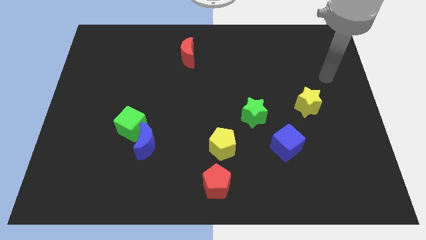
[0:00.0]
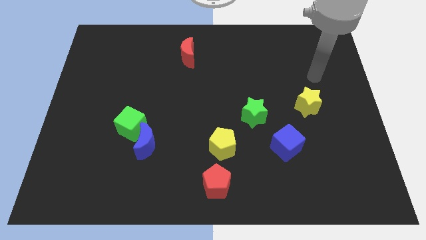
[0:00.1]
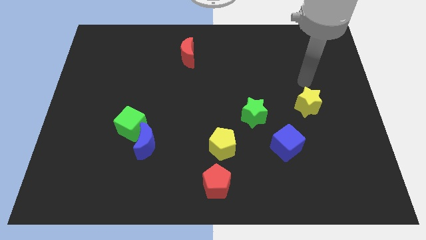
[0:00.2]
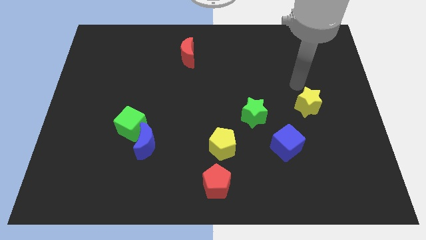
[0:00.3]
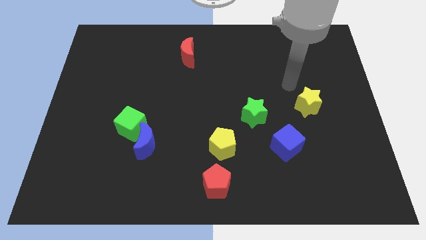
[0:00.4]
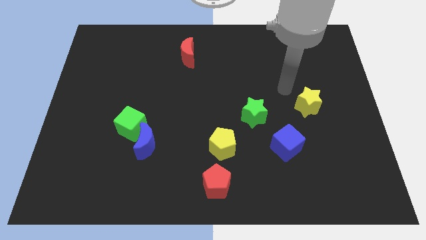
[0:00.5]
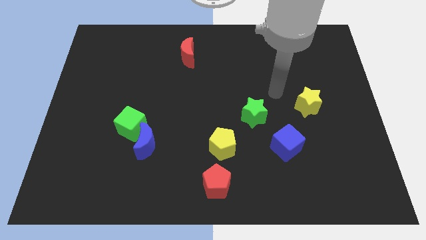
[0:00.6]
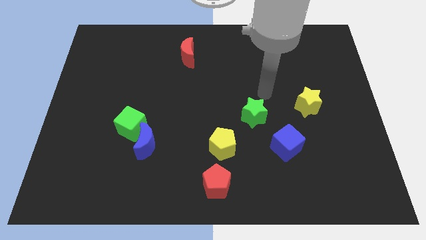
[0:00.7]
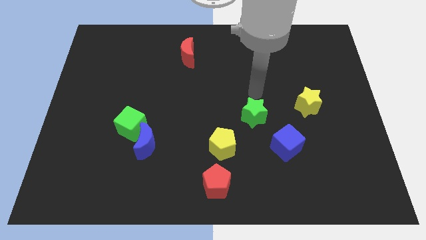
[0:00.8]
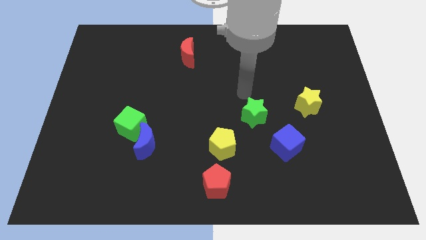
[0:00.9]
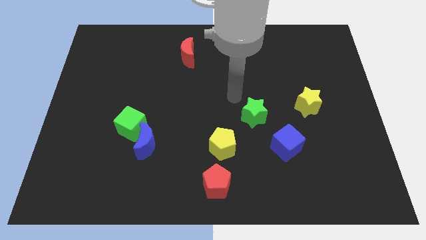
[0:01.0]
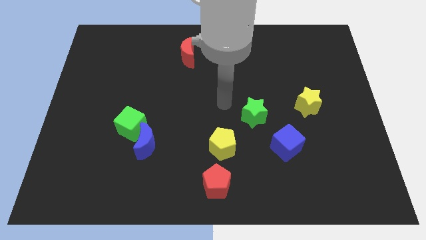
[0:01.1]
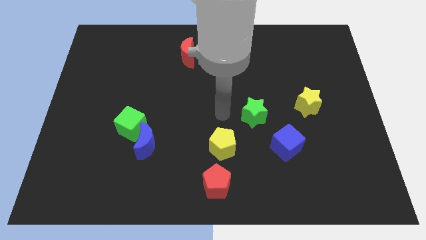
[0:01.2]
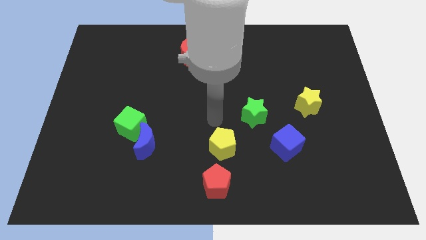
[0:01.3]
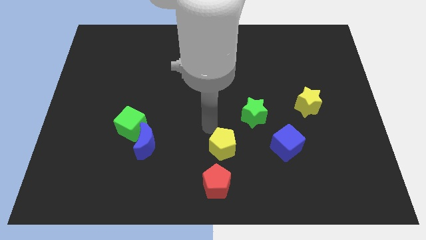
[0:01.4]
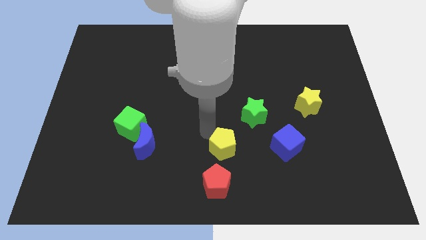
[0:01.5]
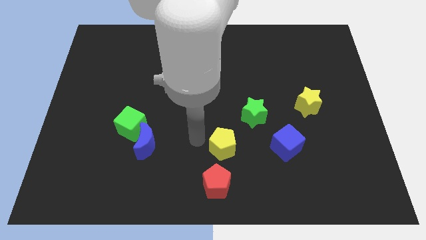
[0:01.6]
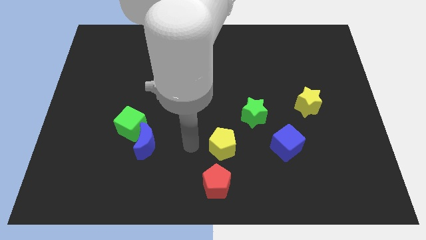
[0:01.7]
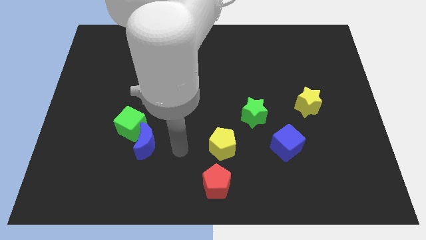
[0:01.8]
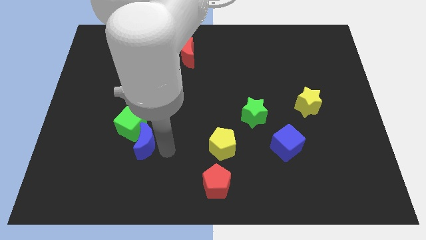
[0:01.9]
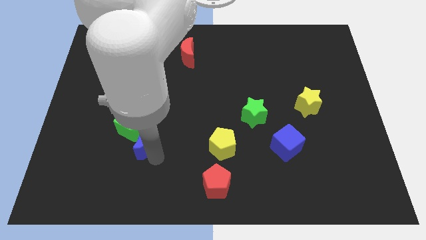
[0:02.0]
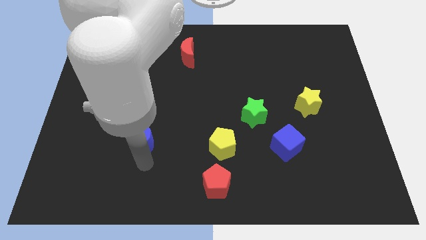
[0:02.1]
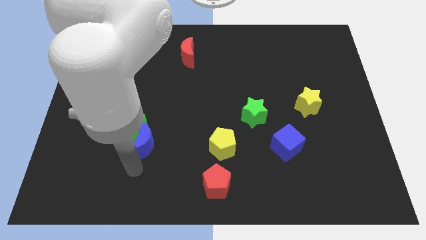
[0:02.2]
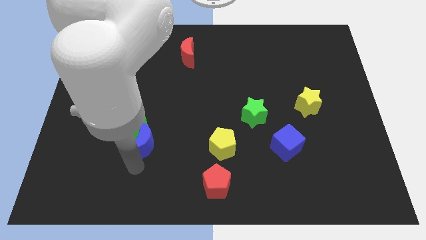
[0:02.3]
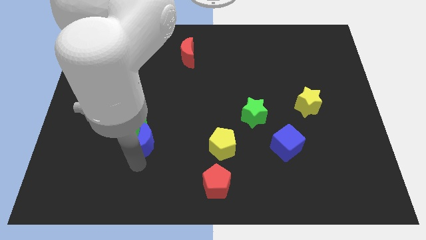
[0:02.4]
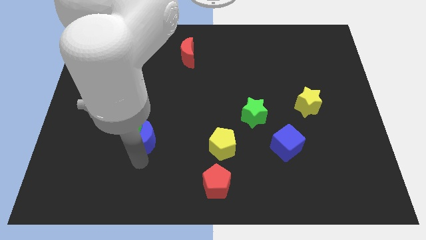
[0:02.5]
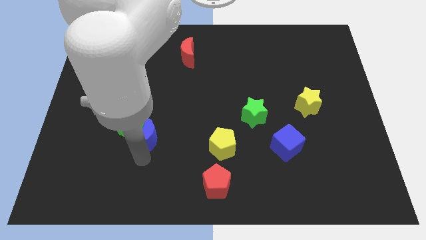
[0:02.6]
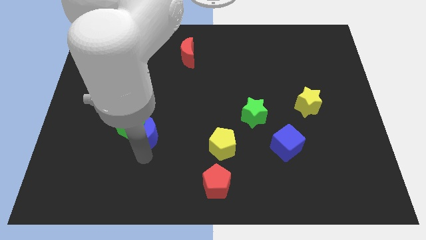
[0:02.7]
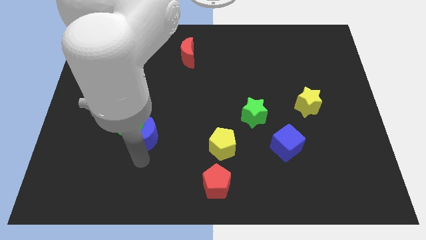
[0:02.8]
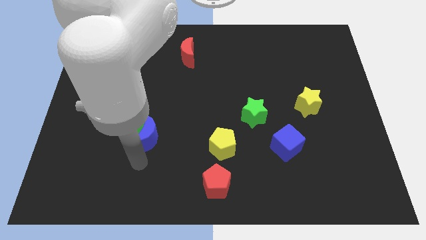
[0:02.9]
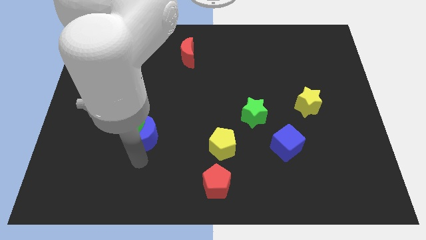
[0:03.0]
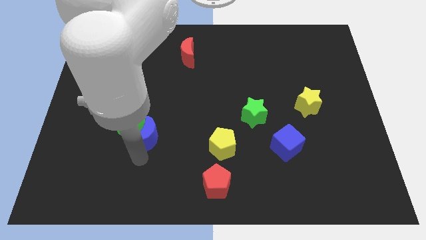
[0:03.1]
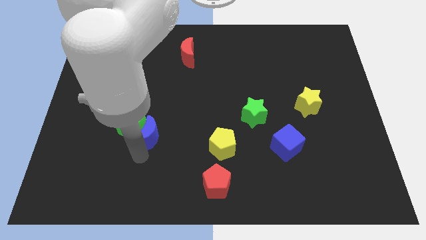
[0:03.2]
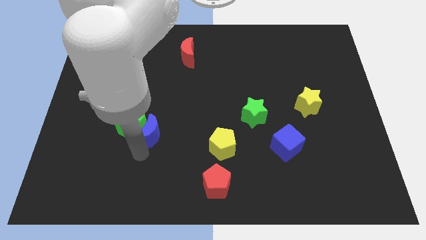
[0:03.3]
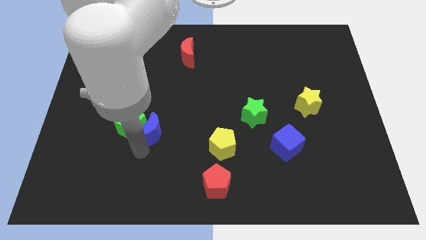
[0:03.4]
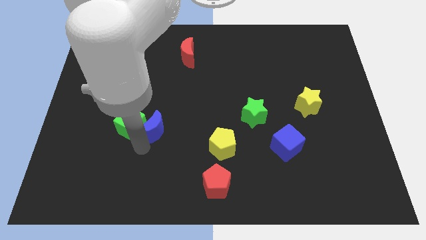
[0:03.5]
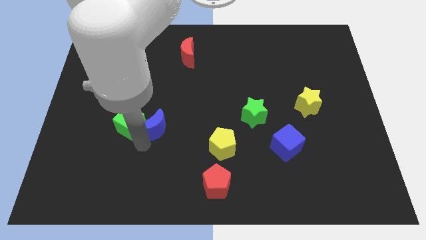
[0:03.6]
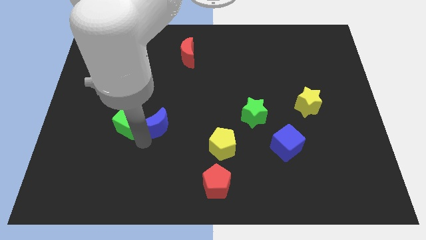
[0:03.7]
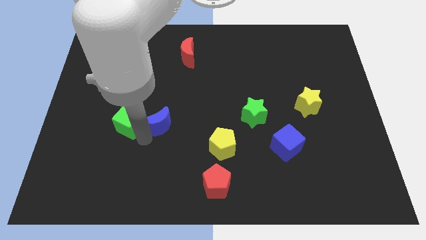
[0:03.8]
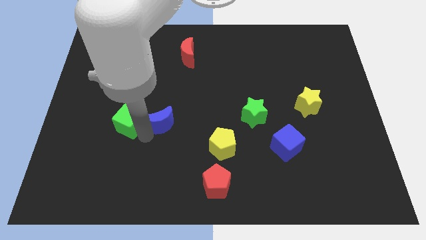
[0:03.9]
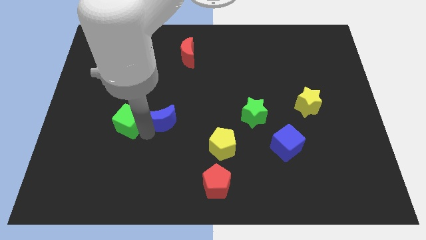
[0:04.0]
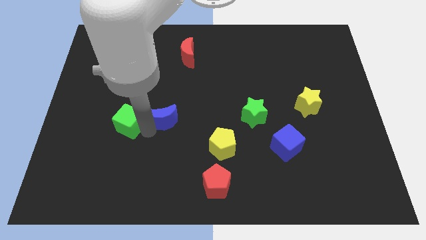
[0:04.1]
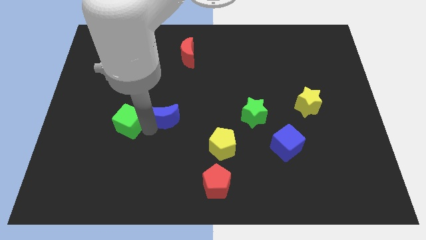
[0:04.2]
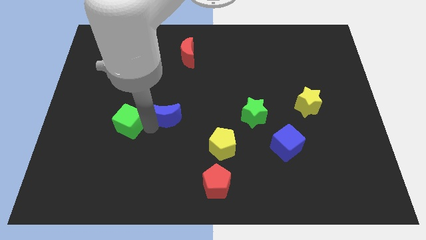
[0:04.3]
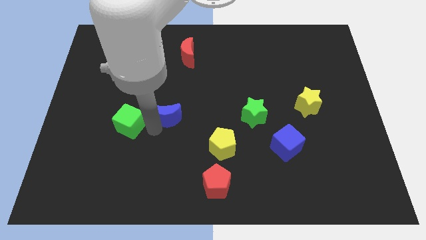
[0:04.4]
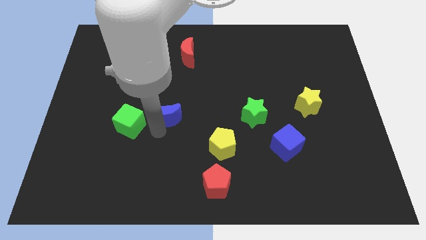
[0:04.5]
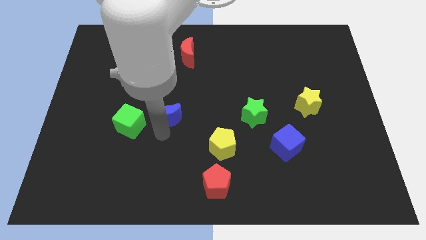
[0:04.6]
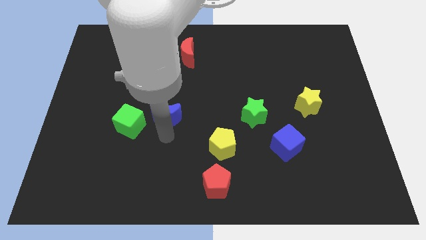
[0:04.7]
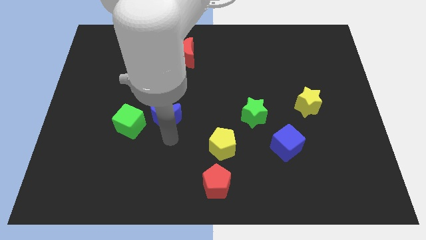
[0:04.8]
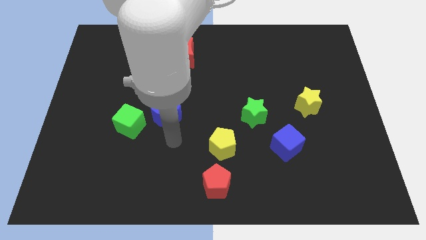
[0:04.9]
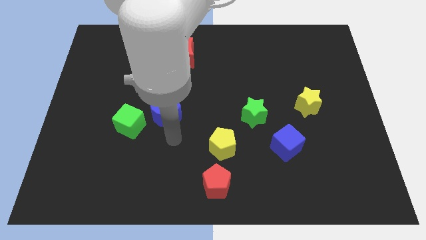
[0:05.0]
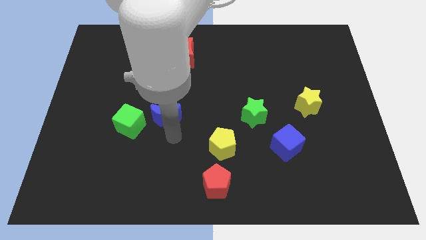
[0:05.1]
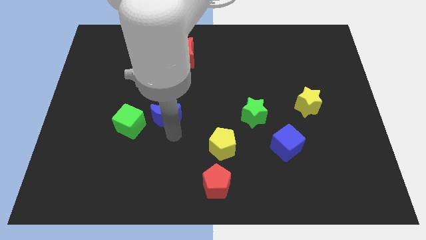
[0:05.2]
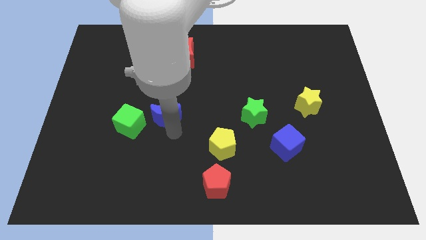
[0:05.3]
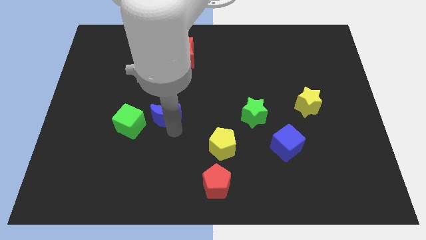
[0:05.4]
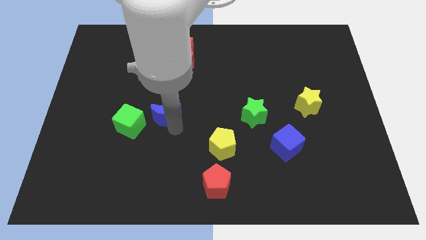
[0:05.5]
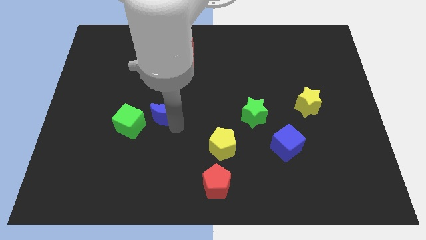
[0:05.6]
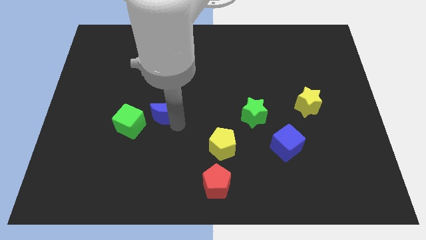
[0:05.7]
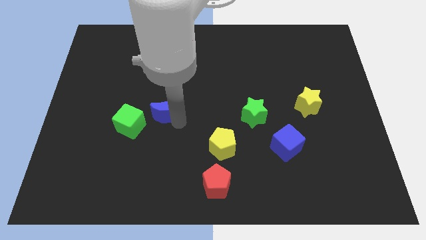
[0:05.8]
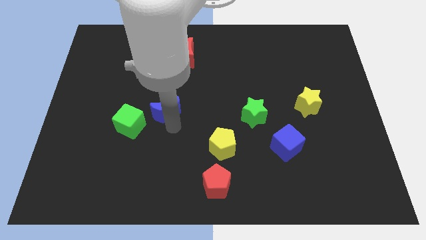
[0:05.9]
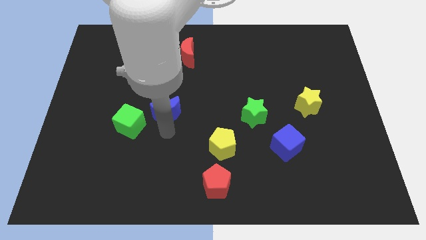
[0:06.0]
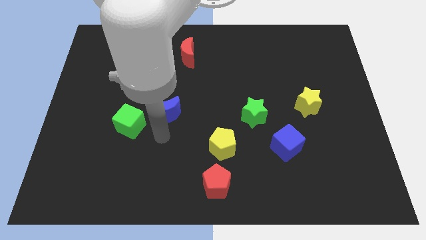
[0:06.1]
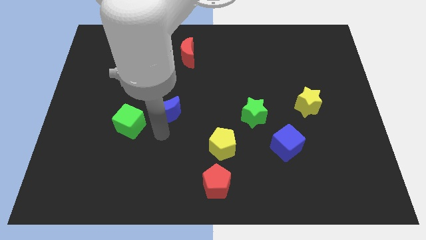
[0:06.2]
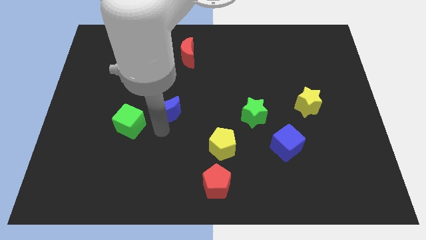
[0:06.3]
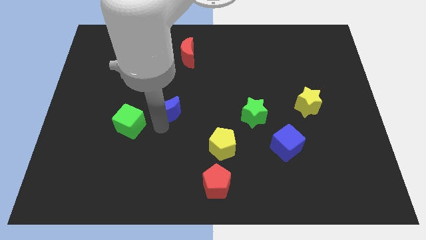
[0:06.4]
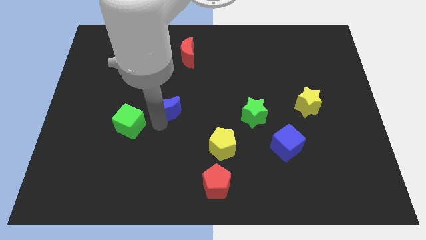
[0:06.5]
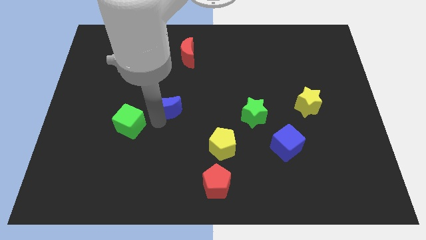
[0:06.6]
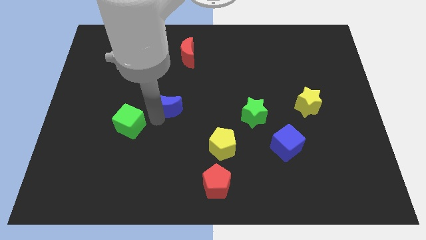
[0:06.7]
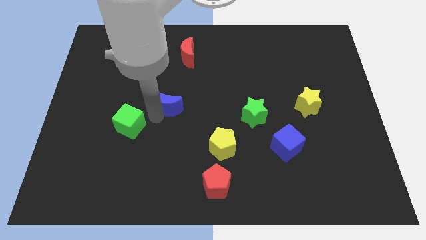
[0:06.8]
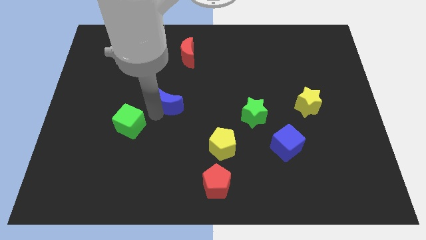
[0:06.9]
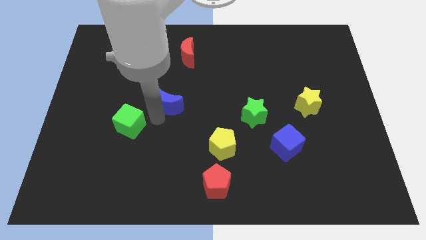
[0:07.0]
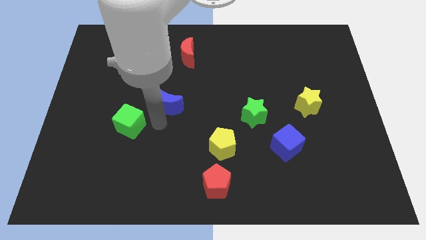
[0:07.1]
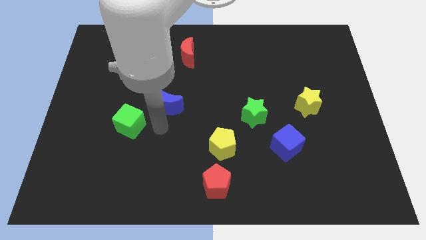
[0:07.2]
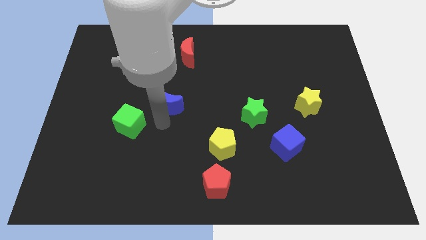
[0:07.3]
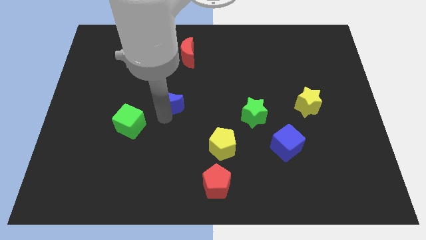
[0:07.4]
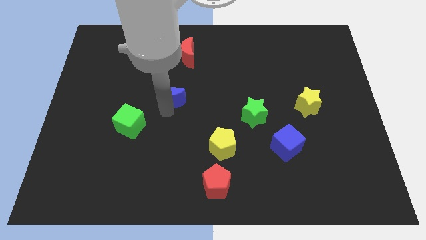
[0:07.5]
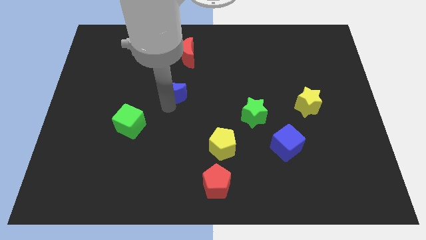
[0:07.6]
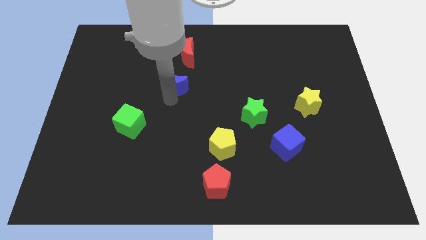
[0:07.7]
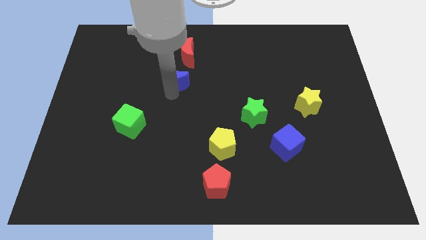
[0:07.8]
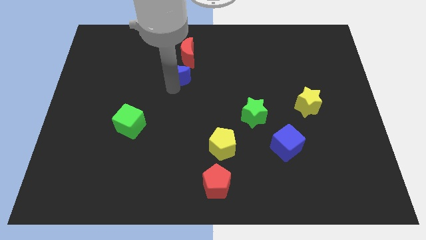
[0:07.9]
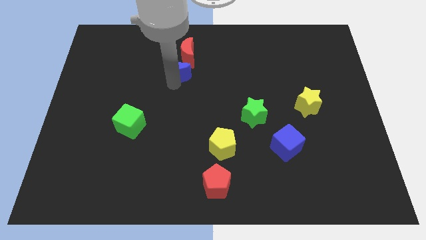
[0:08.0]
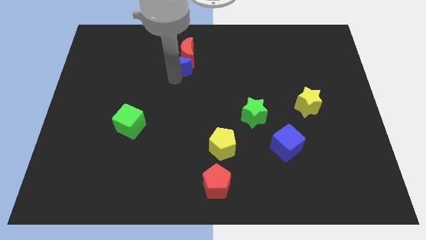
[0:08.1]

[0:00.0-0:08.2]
put the blue moon to the red moon
